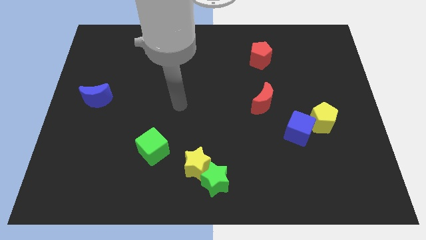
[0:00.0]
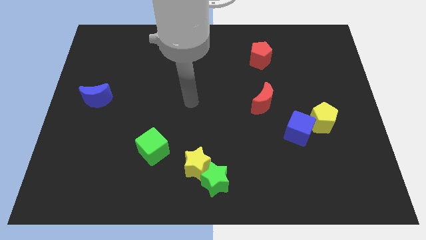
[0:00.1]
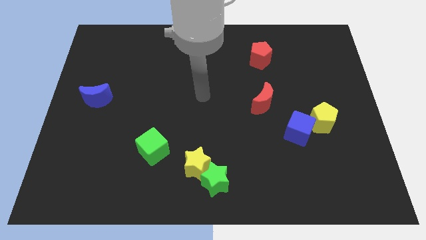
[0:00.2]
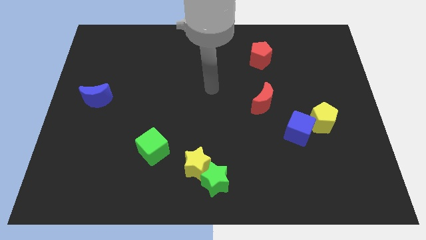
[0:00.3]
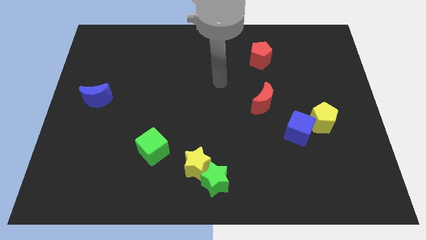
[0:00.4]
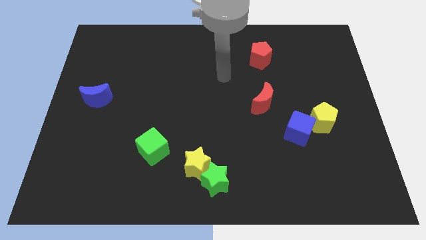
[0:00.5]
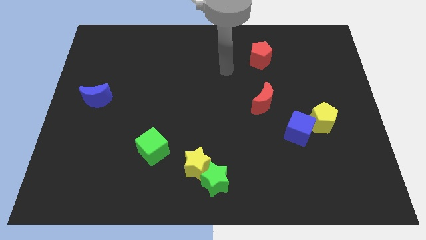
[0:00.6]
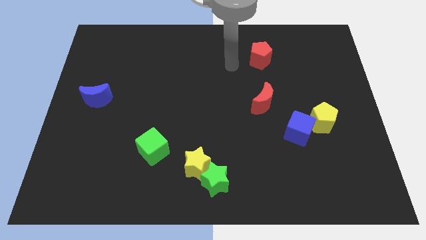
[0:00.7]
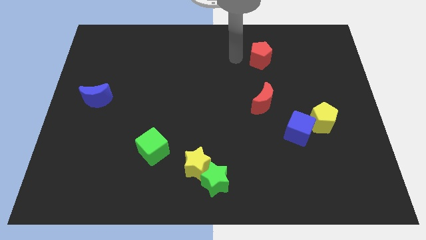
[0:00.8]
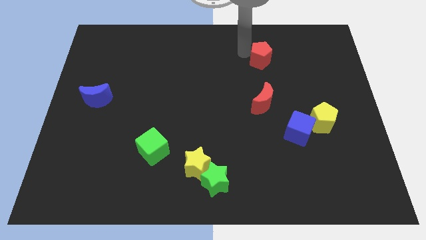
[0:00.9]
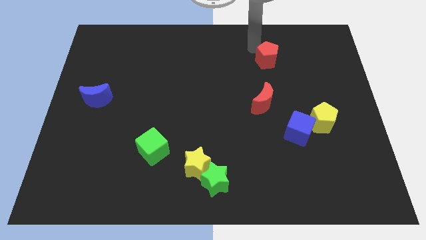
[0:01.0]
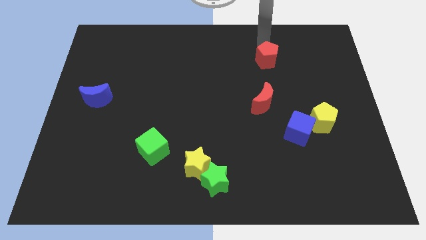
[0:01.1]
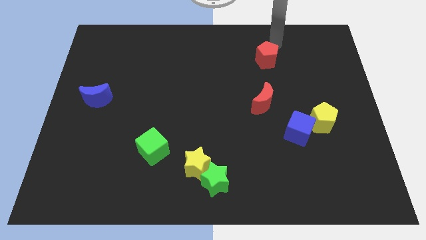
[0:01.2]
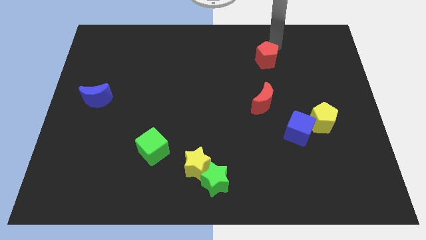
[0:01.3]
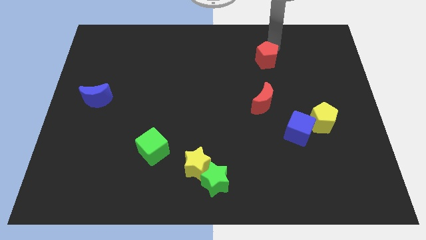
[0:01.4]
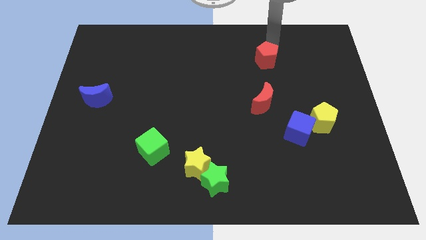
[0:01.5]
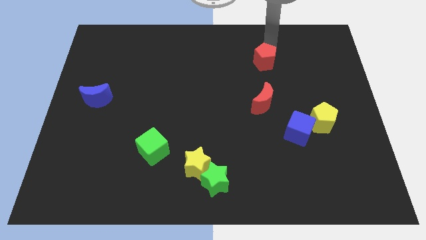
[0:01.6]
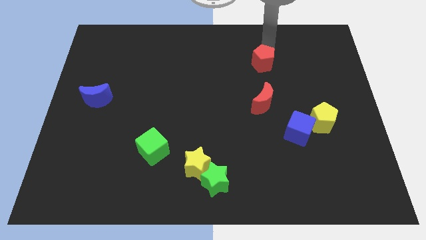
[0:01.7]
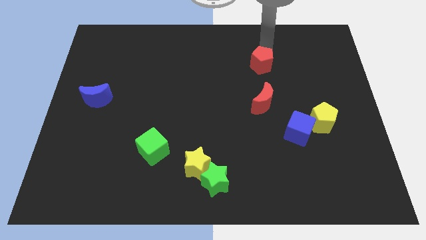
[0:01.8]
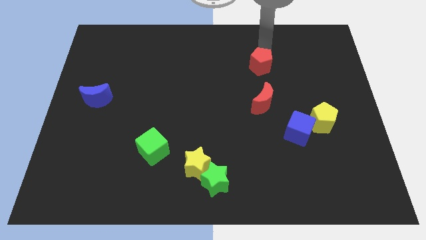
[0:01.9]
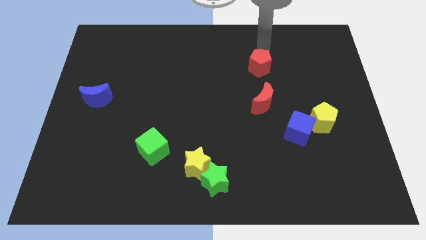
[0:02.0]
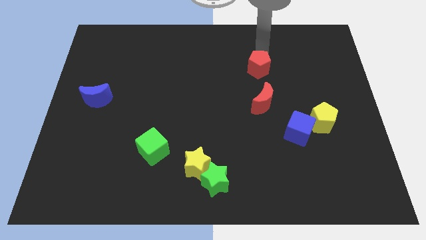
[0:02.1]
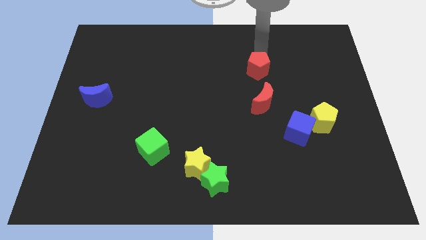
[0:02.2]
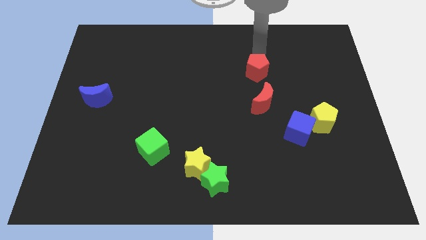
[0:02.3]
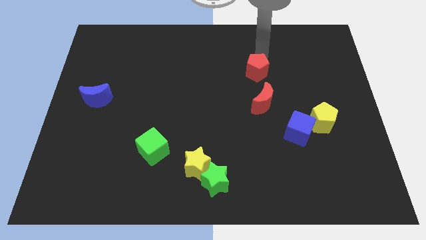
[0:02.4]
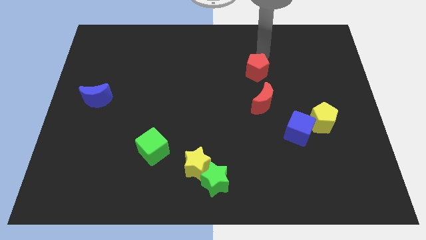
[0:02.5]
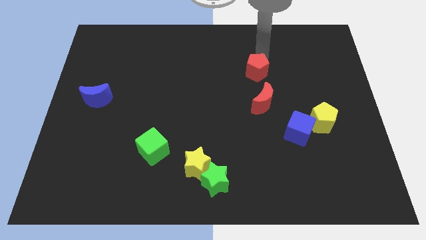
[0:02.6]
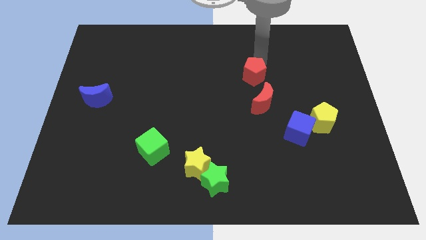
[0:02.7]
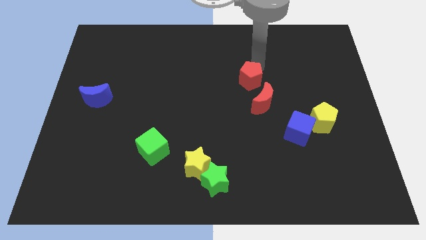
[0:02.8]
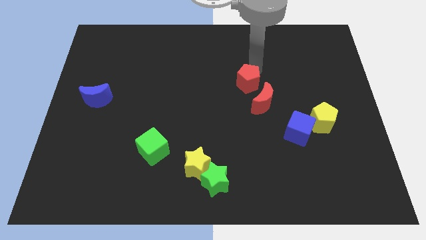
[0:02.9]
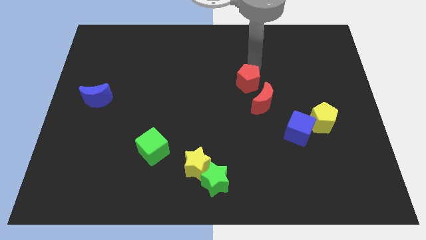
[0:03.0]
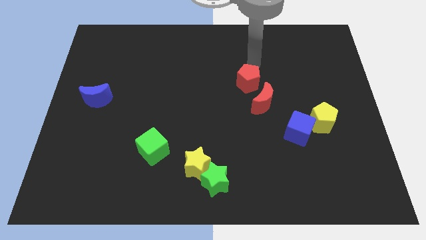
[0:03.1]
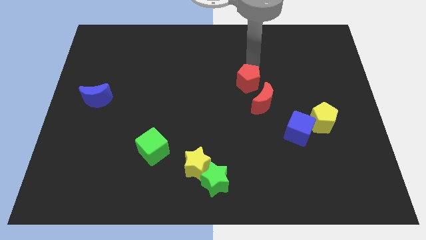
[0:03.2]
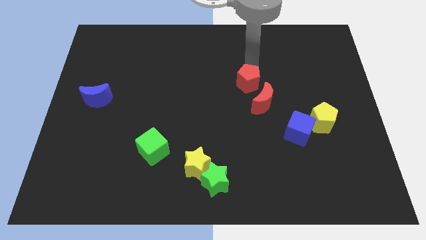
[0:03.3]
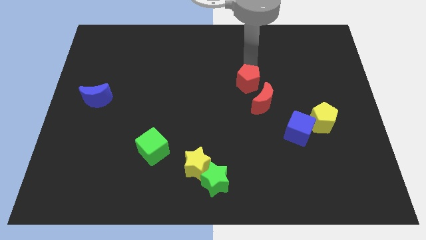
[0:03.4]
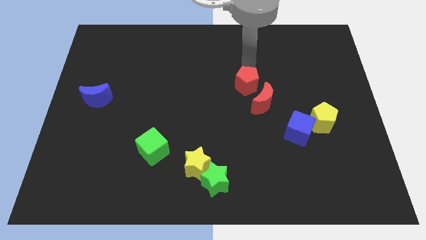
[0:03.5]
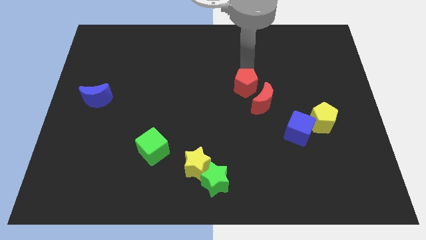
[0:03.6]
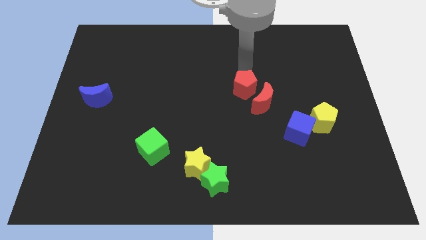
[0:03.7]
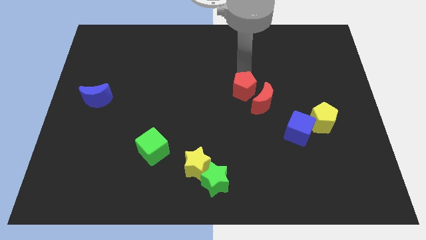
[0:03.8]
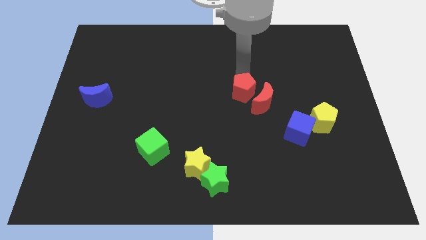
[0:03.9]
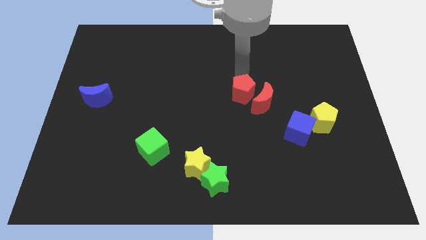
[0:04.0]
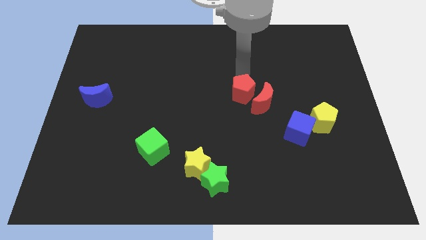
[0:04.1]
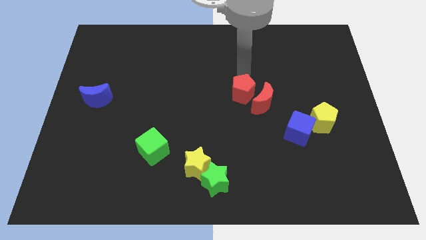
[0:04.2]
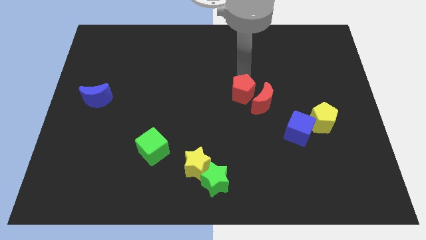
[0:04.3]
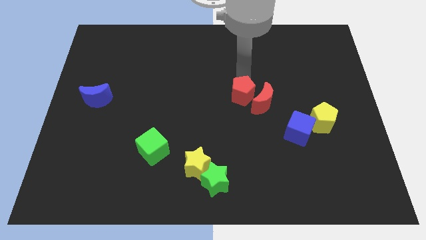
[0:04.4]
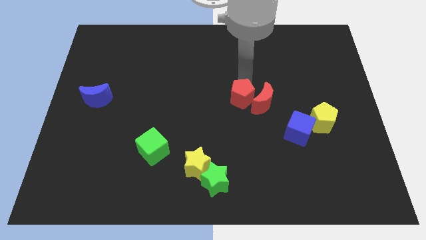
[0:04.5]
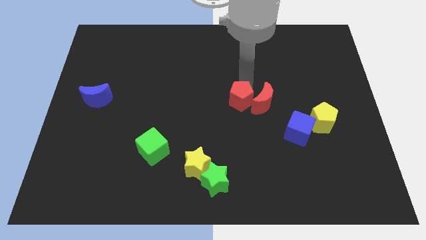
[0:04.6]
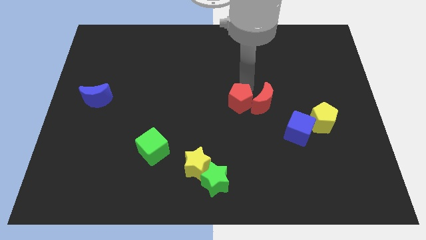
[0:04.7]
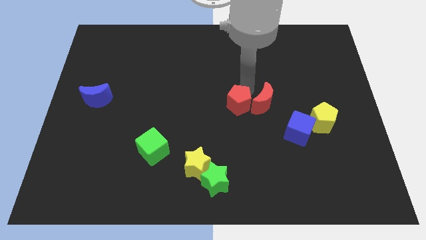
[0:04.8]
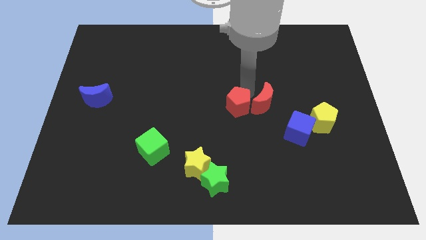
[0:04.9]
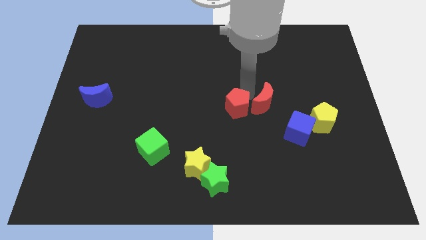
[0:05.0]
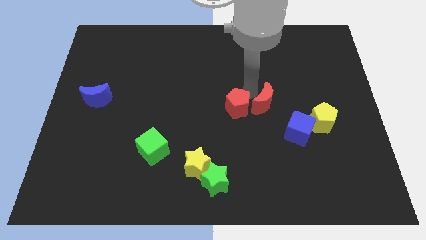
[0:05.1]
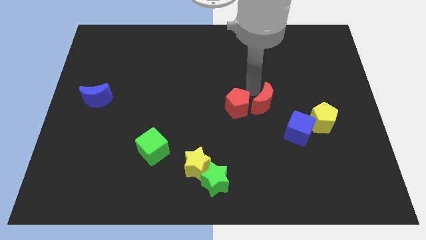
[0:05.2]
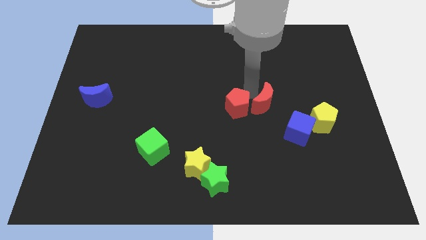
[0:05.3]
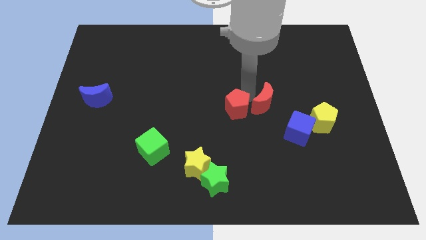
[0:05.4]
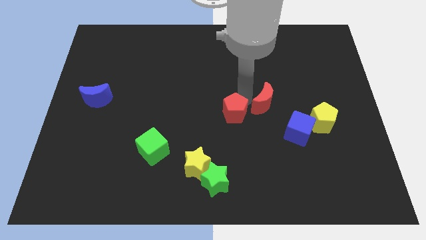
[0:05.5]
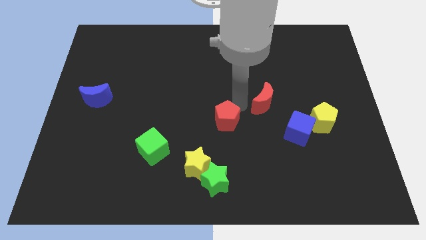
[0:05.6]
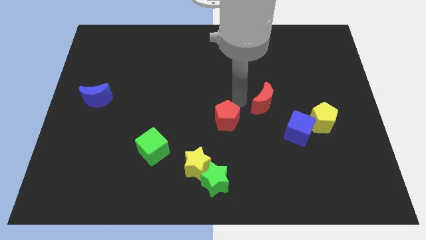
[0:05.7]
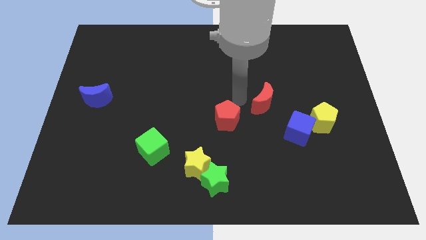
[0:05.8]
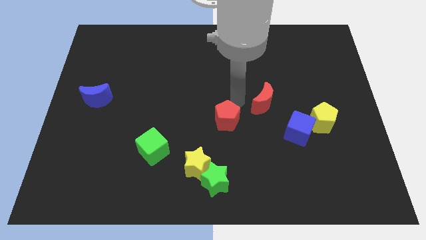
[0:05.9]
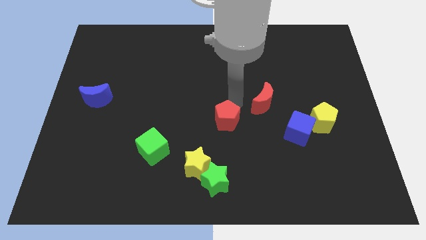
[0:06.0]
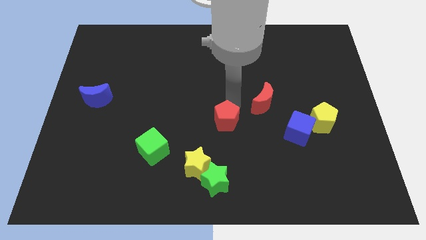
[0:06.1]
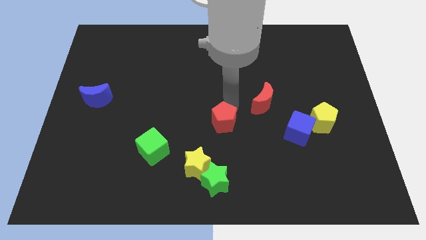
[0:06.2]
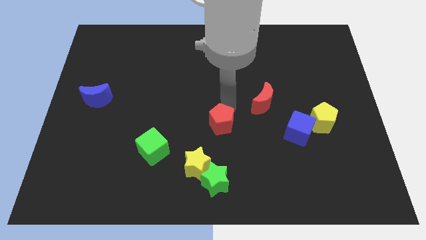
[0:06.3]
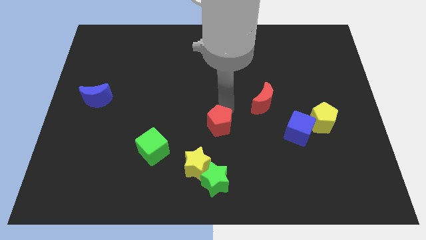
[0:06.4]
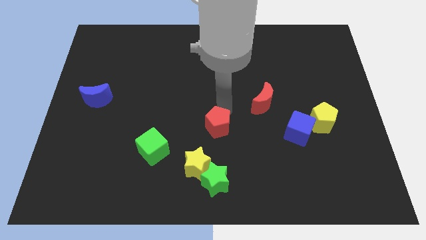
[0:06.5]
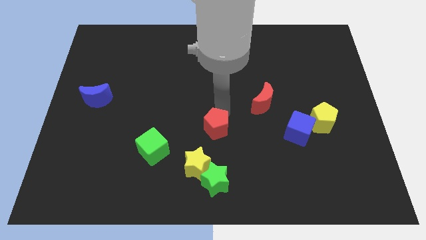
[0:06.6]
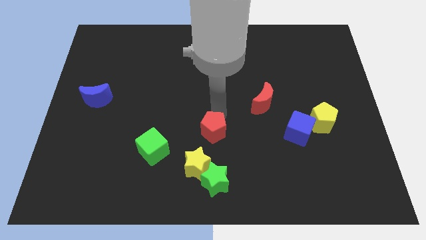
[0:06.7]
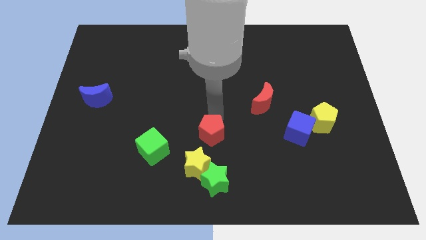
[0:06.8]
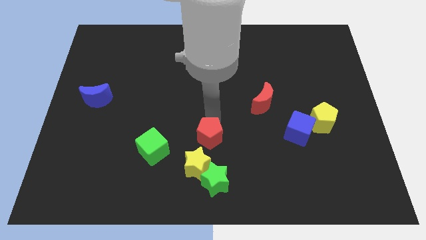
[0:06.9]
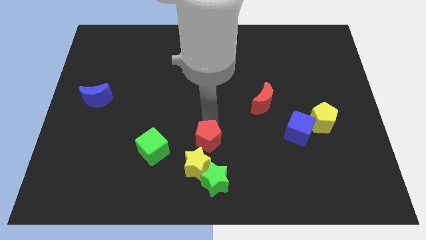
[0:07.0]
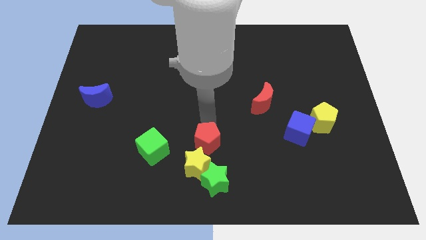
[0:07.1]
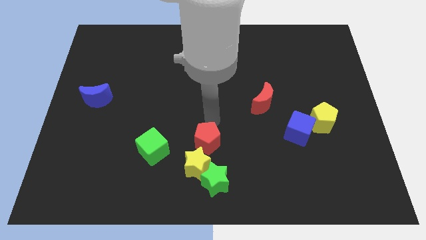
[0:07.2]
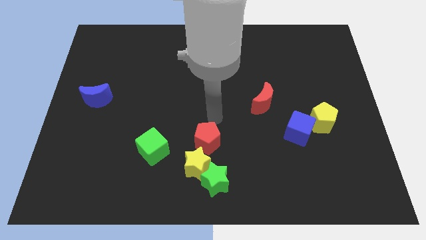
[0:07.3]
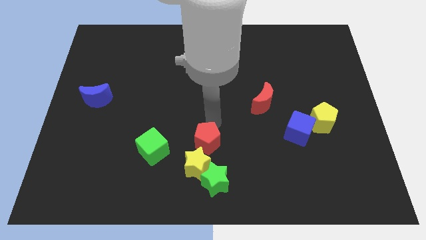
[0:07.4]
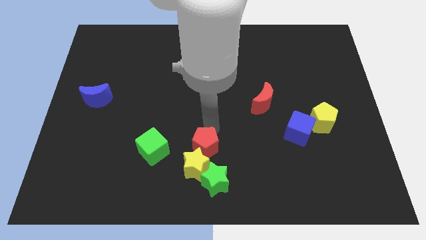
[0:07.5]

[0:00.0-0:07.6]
move the red pentagon to the yellow star
